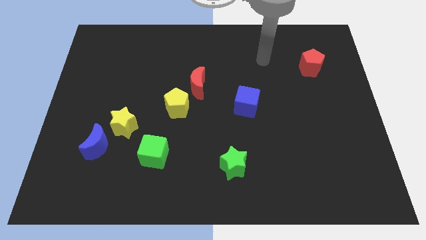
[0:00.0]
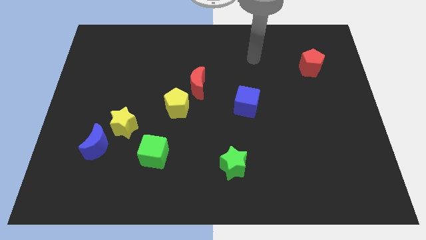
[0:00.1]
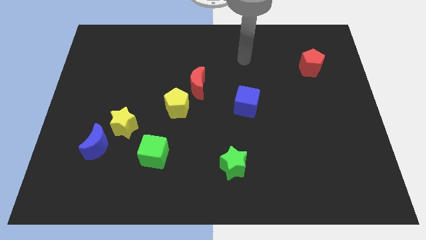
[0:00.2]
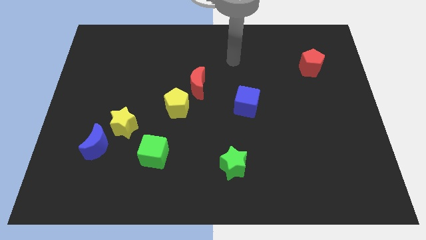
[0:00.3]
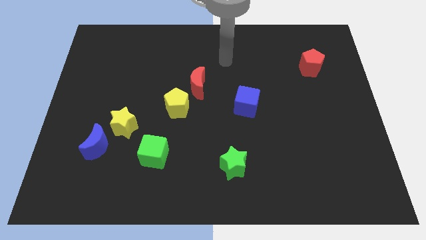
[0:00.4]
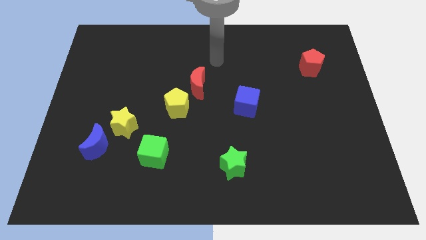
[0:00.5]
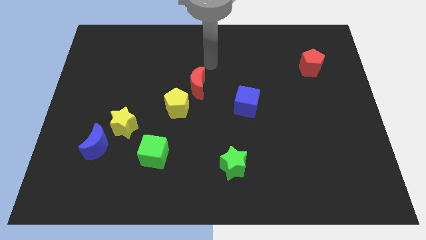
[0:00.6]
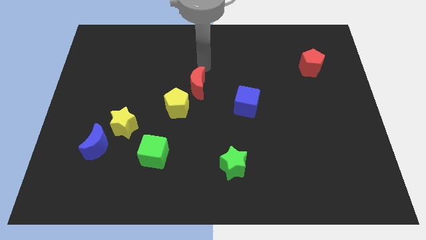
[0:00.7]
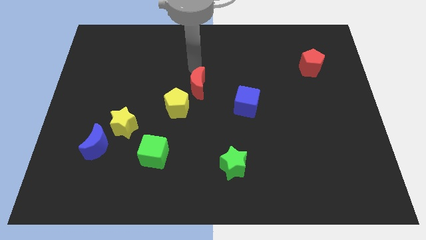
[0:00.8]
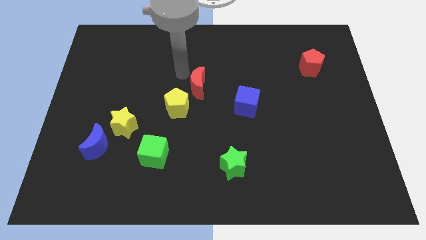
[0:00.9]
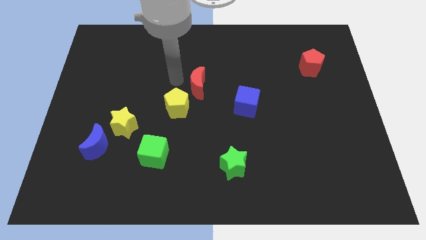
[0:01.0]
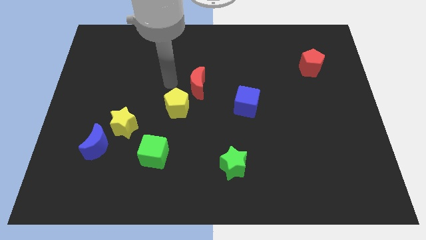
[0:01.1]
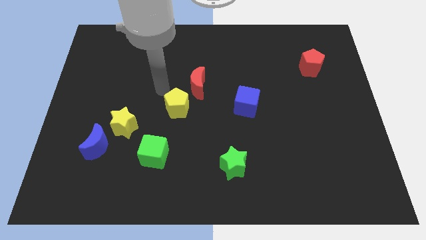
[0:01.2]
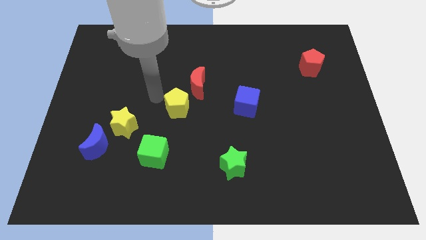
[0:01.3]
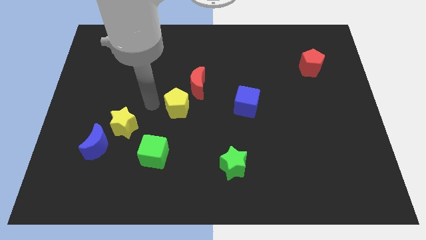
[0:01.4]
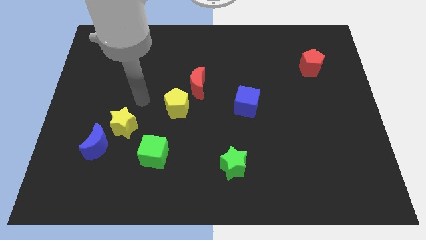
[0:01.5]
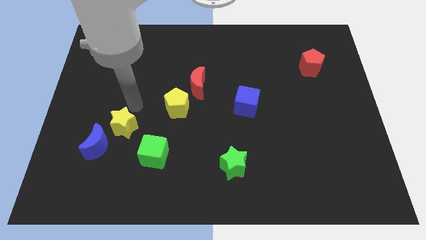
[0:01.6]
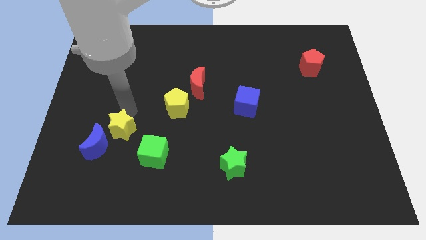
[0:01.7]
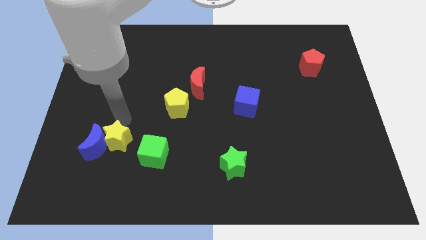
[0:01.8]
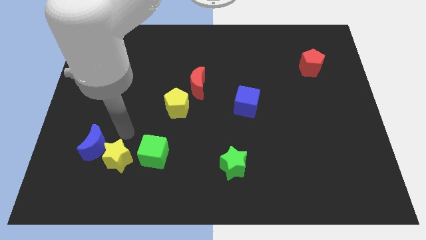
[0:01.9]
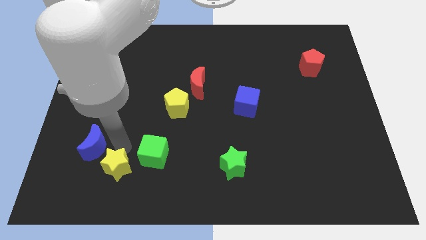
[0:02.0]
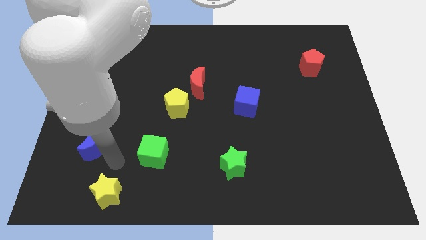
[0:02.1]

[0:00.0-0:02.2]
separate the blue moon from the yellow star

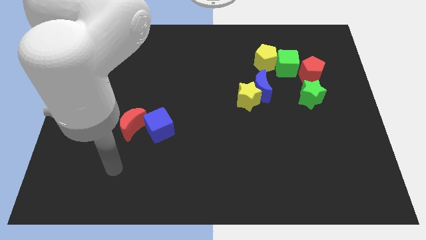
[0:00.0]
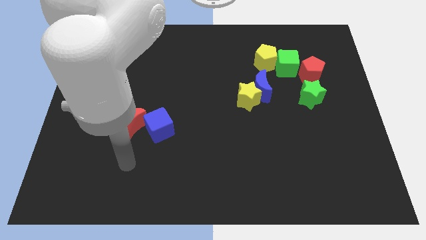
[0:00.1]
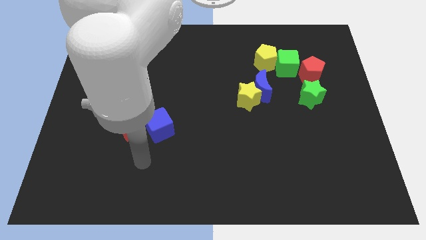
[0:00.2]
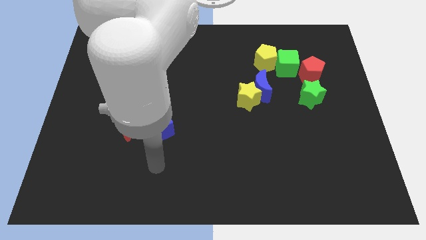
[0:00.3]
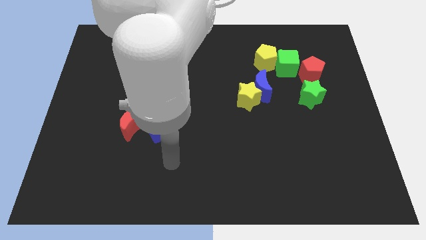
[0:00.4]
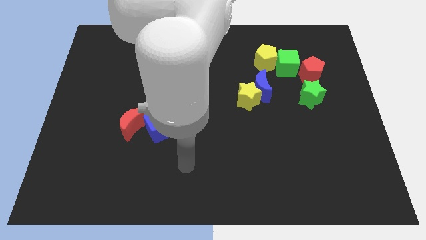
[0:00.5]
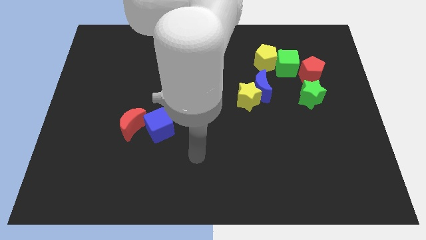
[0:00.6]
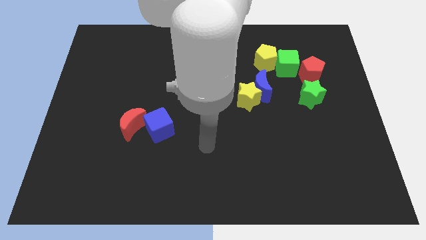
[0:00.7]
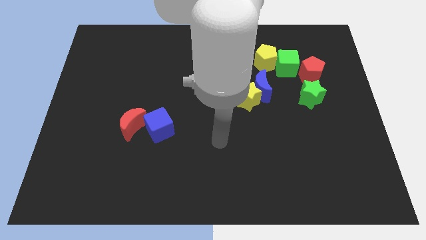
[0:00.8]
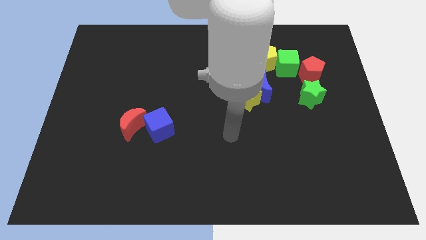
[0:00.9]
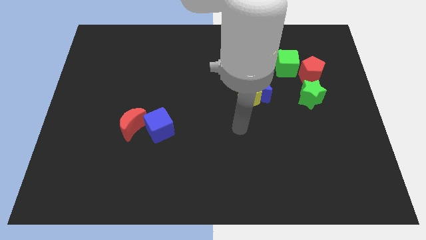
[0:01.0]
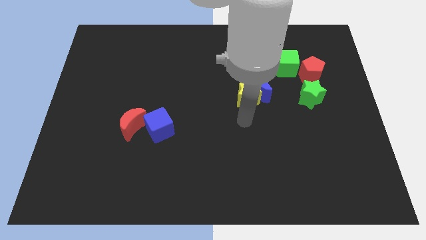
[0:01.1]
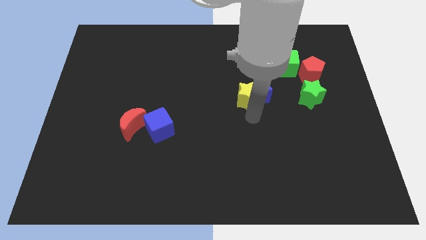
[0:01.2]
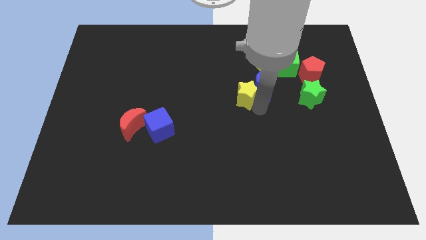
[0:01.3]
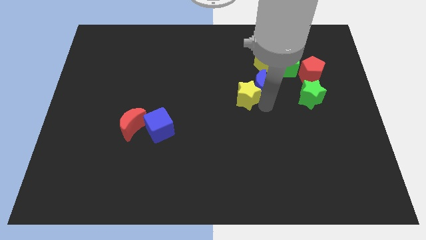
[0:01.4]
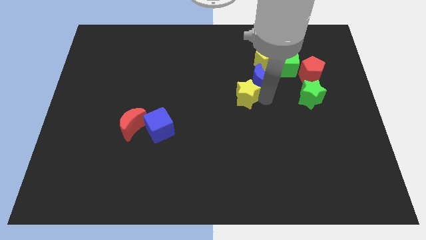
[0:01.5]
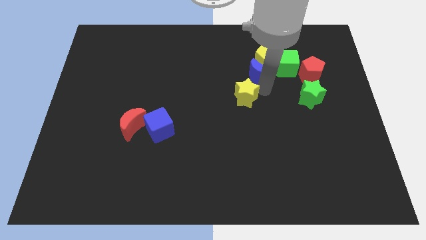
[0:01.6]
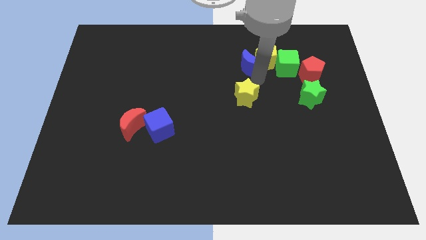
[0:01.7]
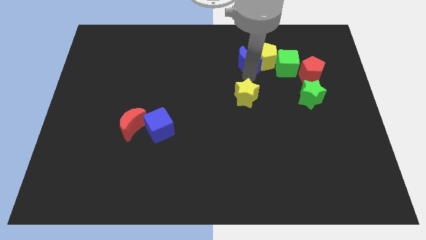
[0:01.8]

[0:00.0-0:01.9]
separate the yellow star from the blue moon

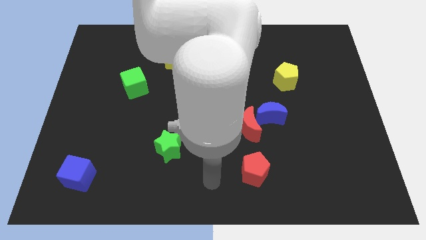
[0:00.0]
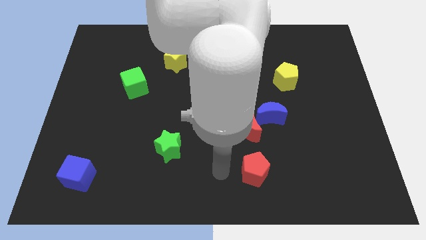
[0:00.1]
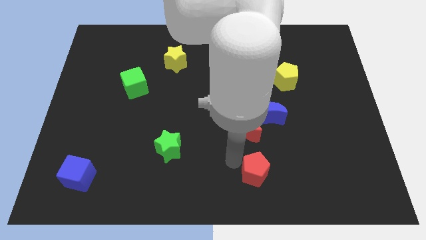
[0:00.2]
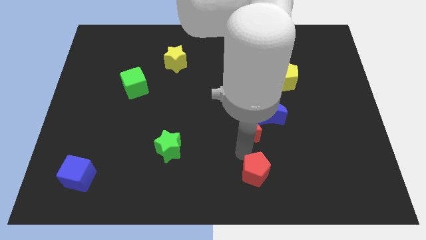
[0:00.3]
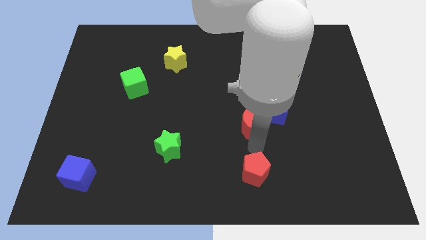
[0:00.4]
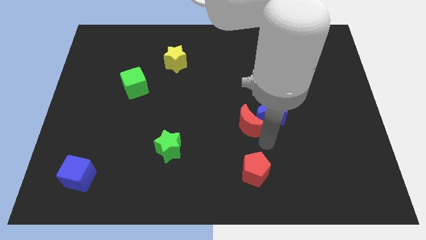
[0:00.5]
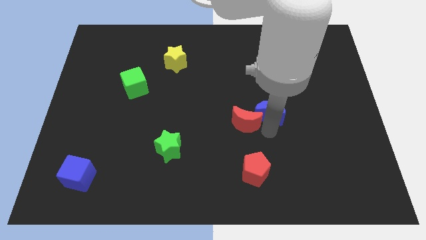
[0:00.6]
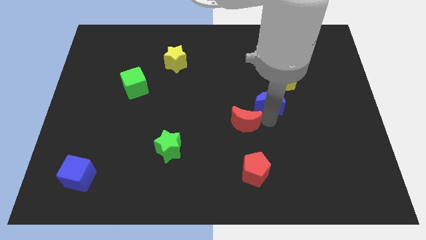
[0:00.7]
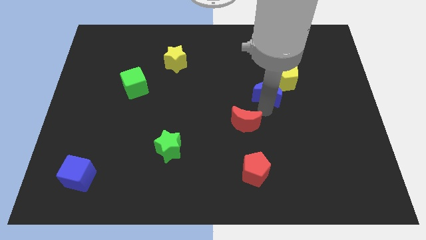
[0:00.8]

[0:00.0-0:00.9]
move the red moon away from the blue moon

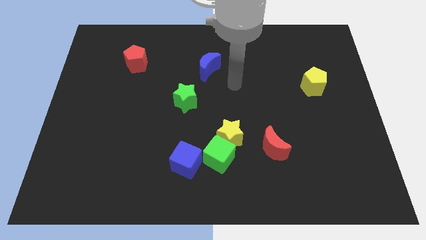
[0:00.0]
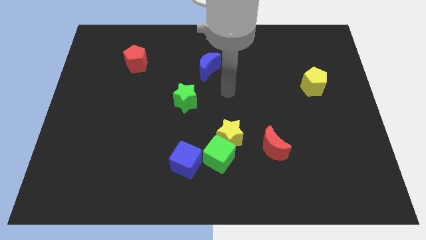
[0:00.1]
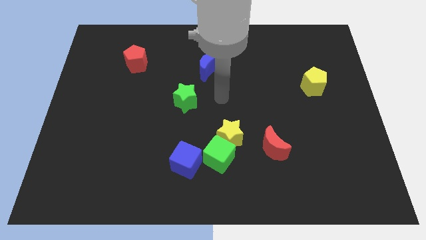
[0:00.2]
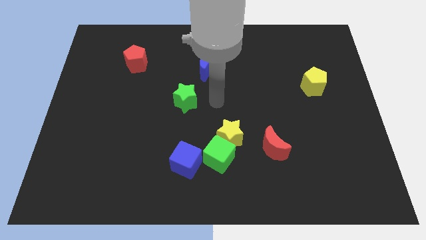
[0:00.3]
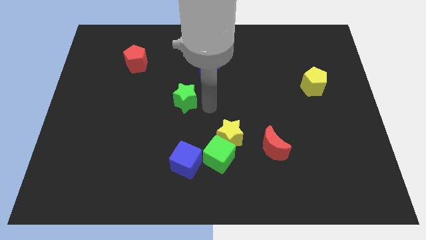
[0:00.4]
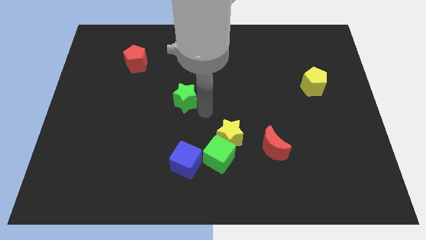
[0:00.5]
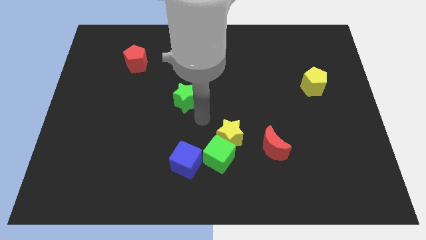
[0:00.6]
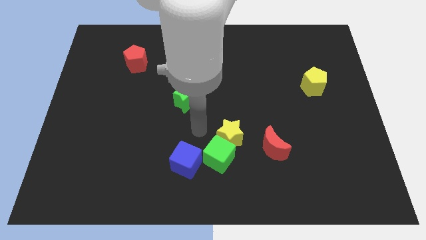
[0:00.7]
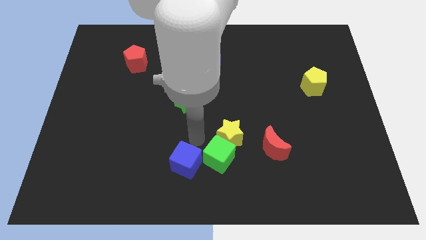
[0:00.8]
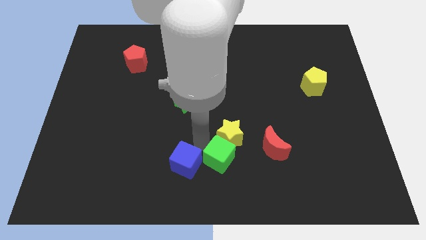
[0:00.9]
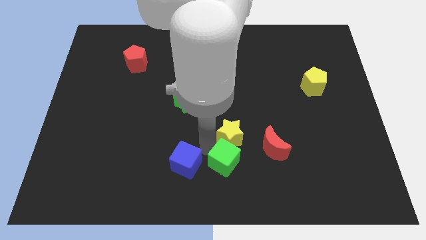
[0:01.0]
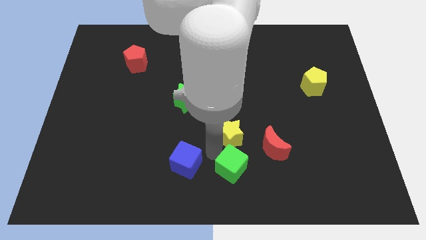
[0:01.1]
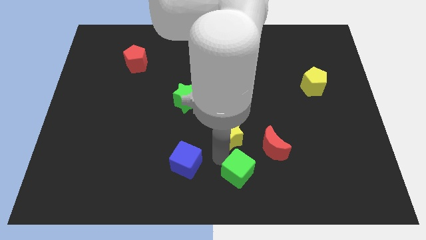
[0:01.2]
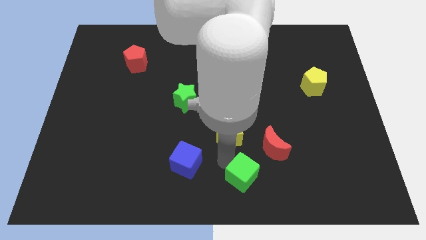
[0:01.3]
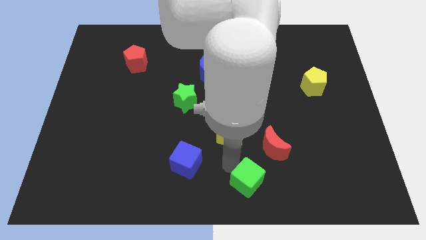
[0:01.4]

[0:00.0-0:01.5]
separate the green cube from the yellow star and blue cube

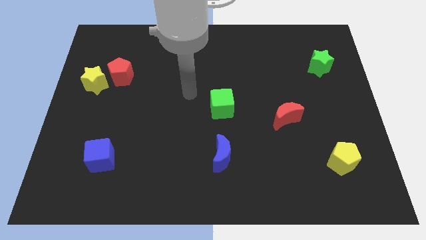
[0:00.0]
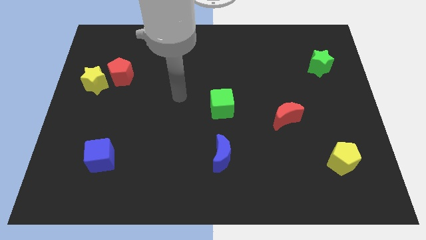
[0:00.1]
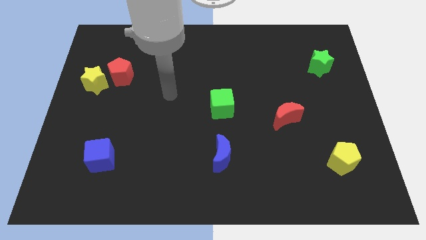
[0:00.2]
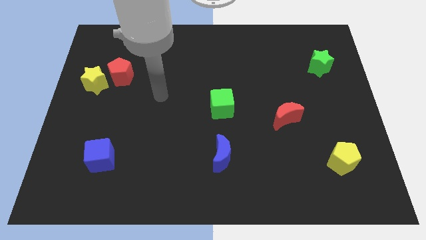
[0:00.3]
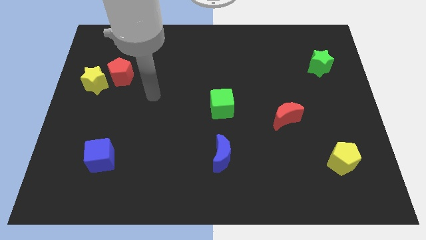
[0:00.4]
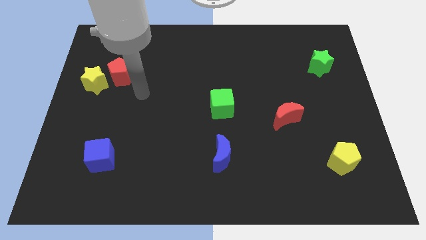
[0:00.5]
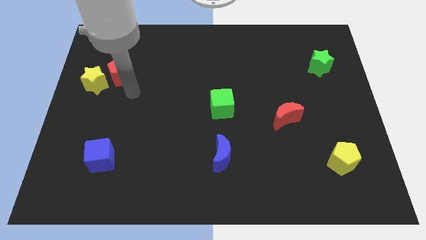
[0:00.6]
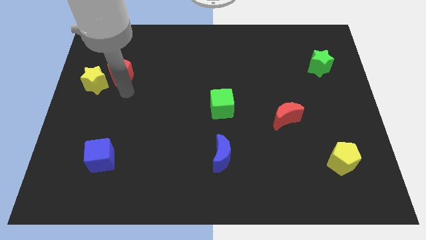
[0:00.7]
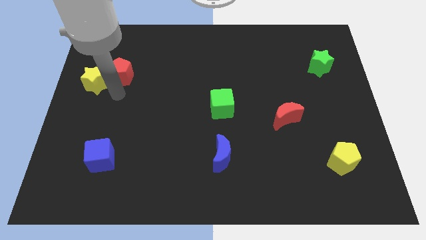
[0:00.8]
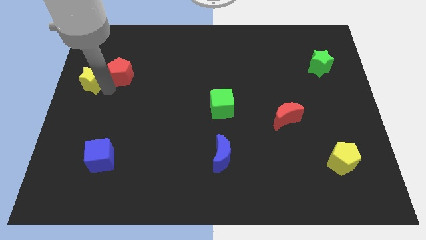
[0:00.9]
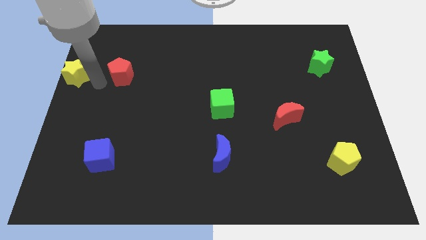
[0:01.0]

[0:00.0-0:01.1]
move the red pentagon away from the yellow star

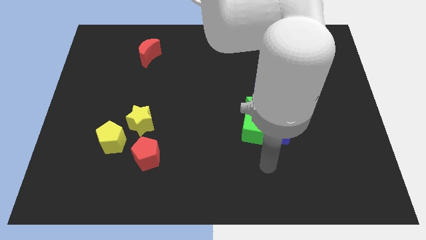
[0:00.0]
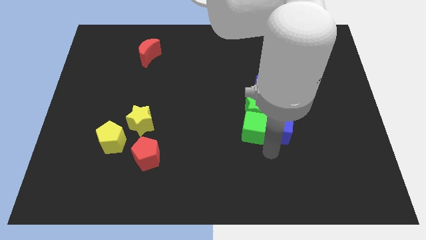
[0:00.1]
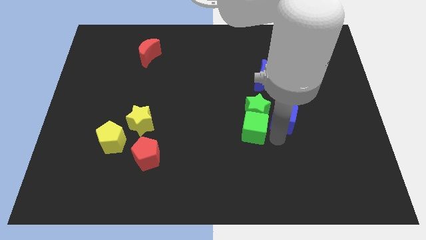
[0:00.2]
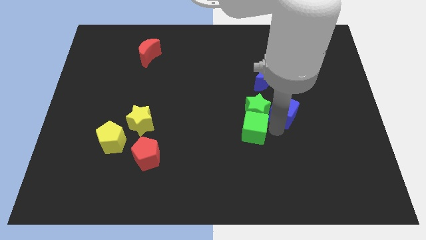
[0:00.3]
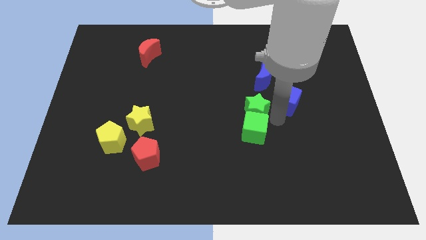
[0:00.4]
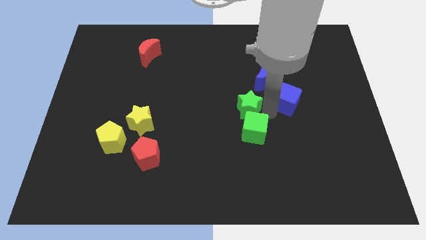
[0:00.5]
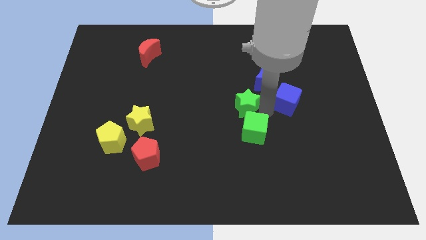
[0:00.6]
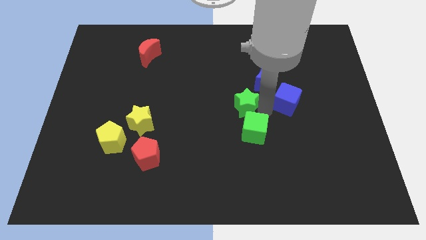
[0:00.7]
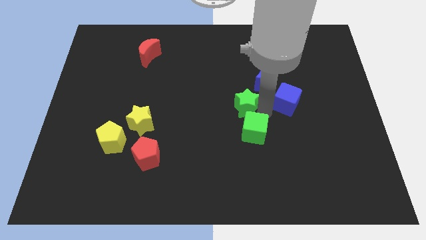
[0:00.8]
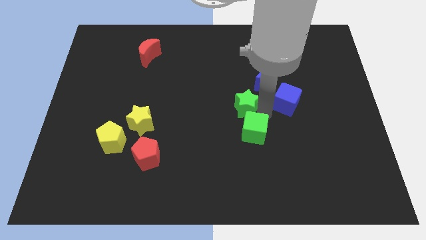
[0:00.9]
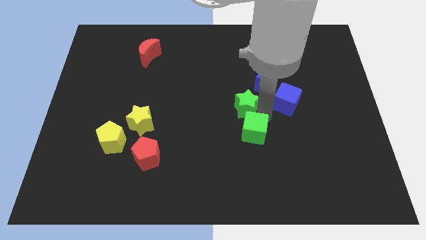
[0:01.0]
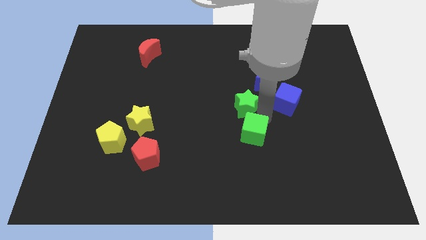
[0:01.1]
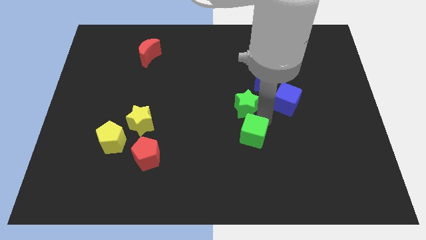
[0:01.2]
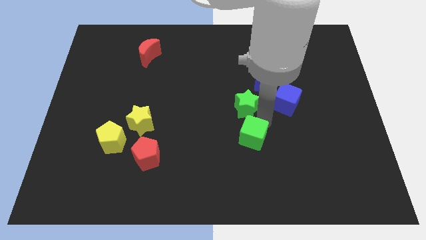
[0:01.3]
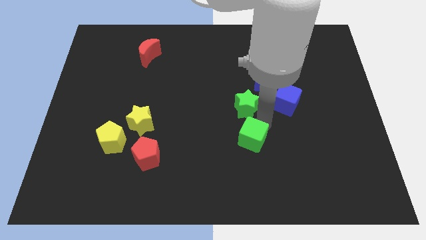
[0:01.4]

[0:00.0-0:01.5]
separate the green cube from the blue cube and green star

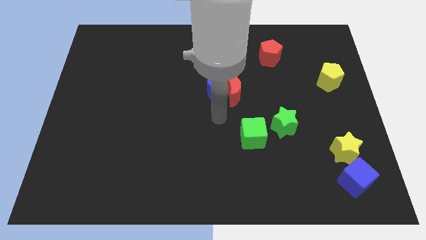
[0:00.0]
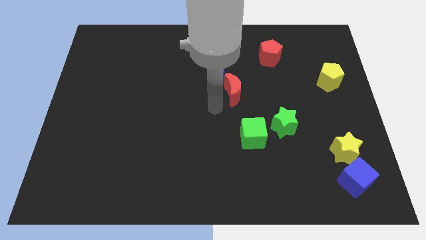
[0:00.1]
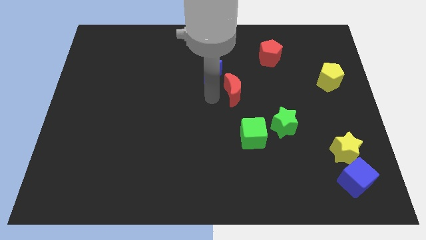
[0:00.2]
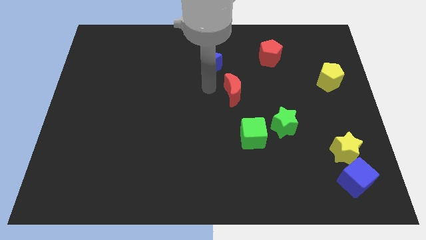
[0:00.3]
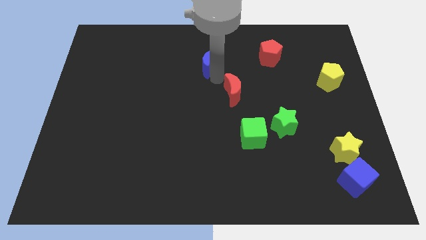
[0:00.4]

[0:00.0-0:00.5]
separate the red moon from the blue moon
